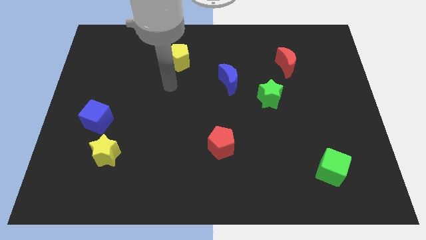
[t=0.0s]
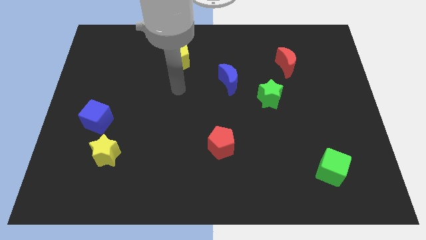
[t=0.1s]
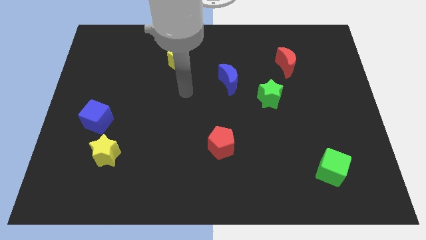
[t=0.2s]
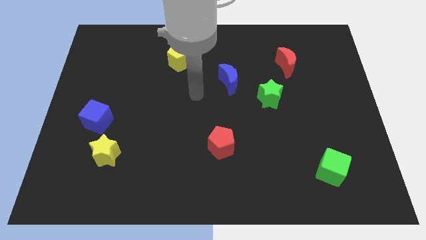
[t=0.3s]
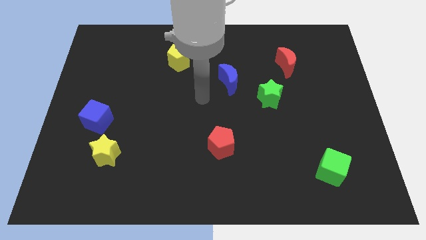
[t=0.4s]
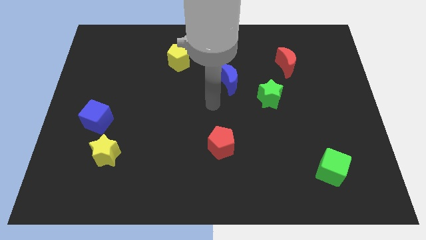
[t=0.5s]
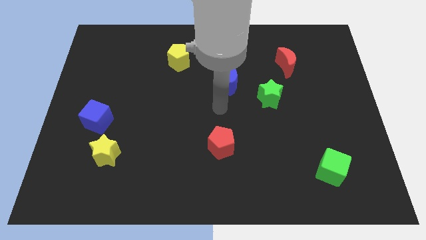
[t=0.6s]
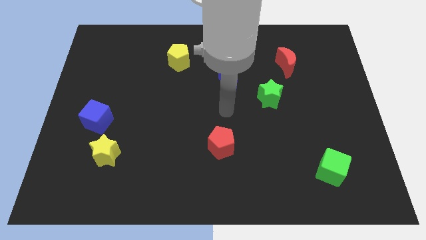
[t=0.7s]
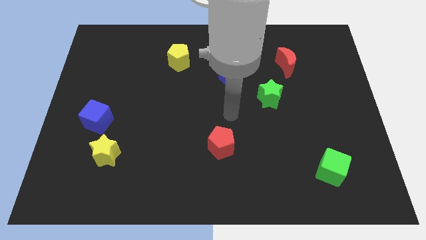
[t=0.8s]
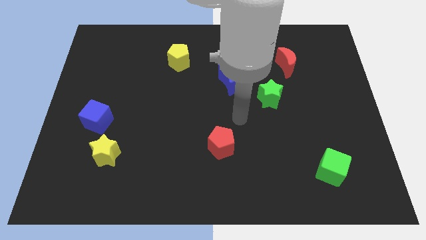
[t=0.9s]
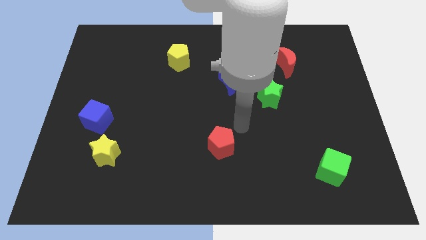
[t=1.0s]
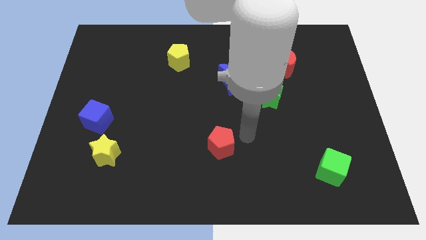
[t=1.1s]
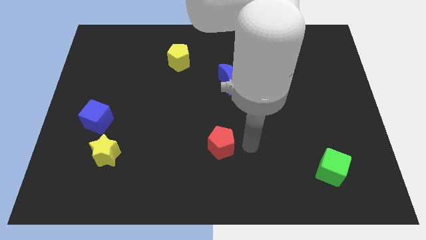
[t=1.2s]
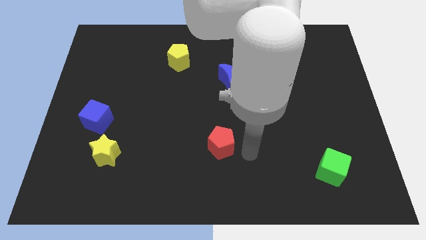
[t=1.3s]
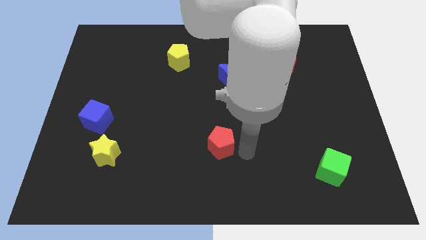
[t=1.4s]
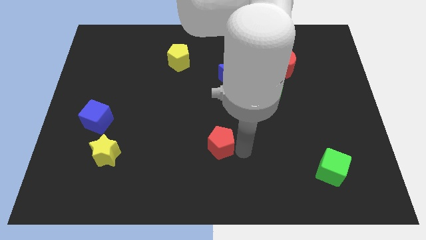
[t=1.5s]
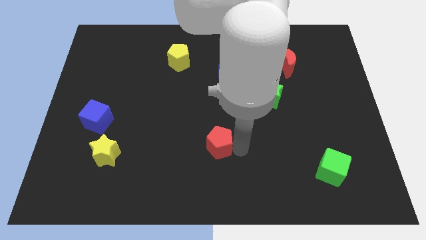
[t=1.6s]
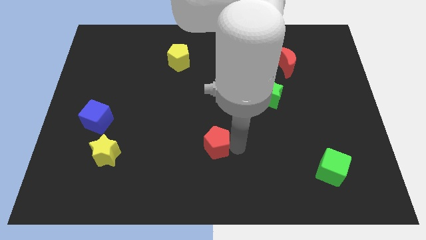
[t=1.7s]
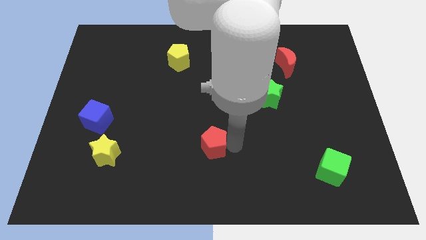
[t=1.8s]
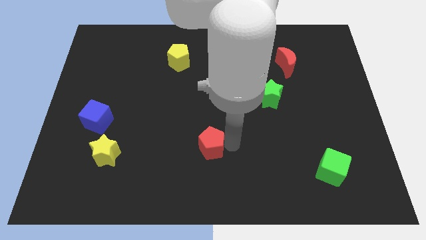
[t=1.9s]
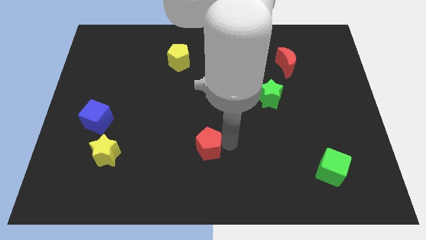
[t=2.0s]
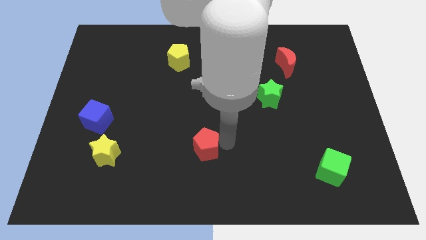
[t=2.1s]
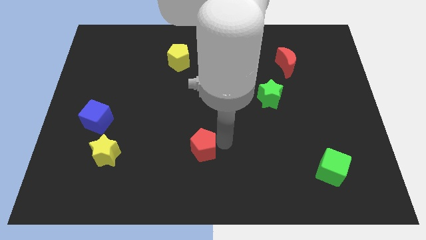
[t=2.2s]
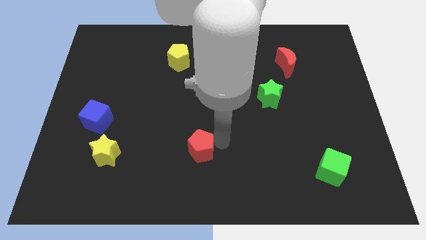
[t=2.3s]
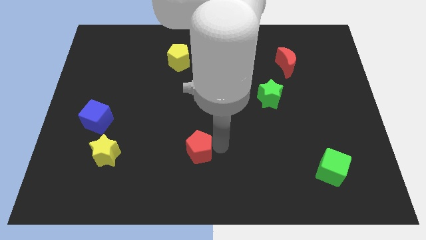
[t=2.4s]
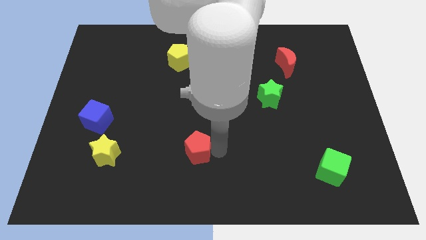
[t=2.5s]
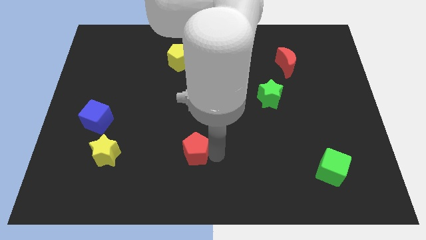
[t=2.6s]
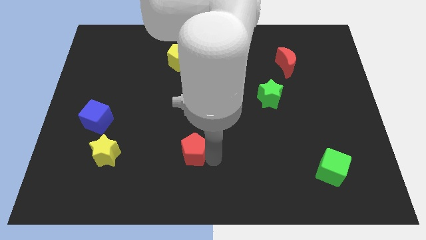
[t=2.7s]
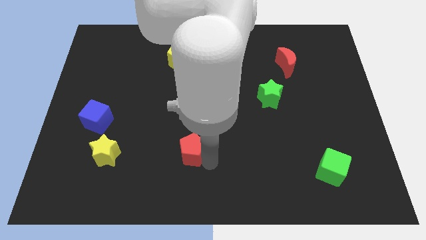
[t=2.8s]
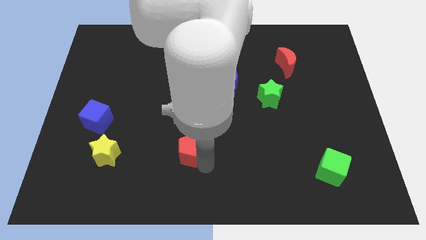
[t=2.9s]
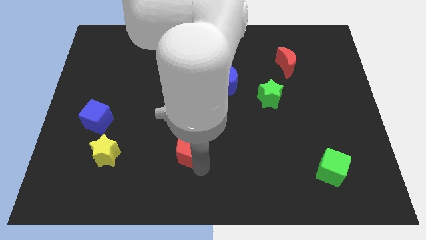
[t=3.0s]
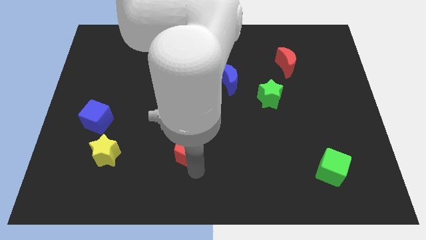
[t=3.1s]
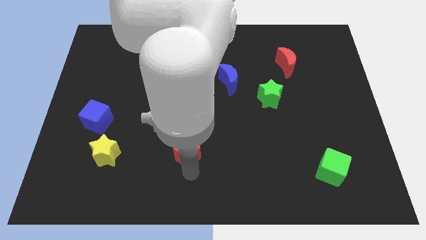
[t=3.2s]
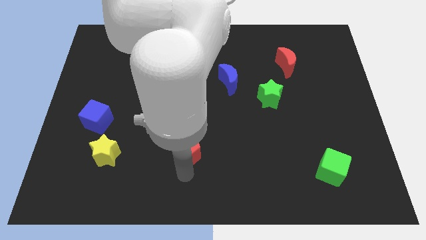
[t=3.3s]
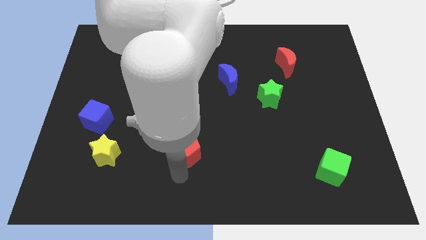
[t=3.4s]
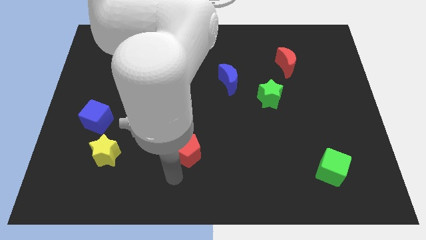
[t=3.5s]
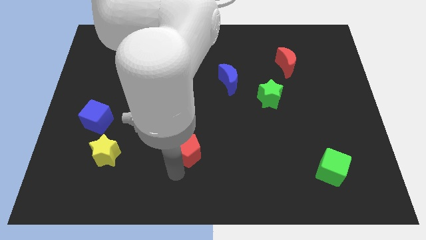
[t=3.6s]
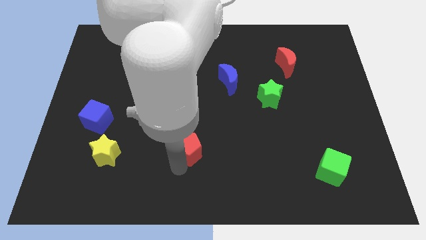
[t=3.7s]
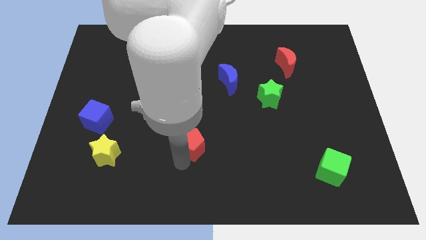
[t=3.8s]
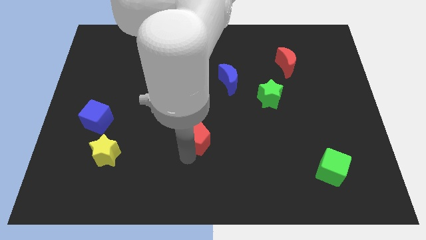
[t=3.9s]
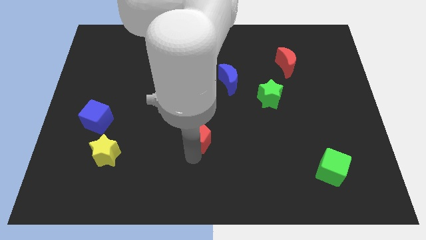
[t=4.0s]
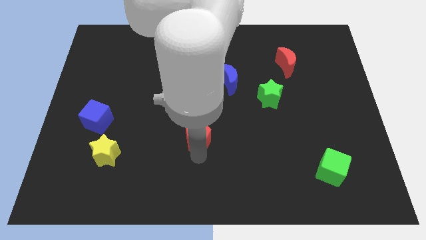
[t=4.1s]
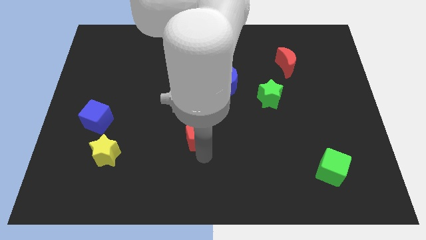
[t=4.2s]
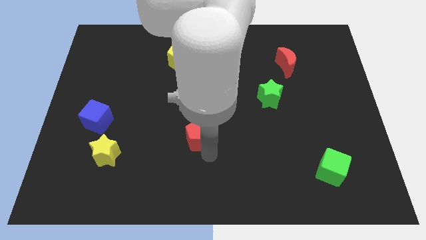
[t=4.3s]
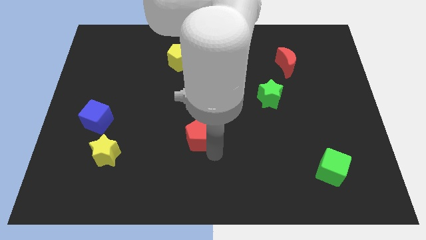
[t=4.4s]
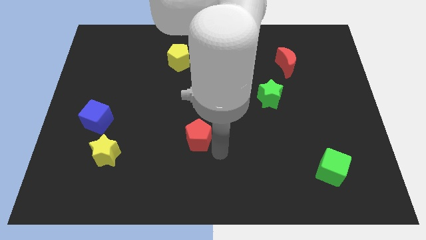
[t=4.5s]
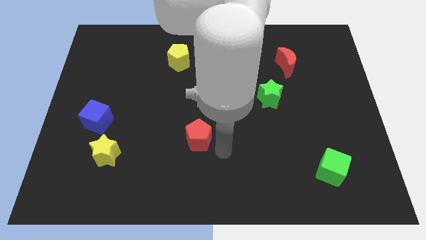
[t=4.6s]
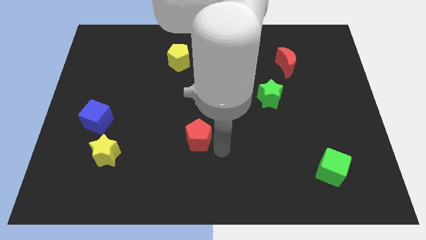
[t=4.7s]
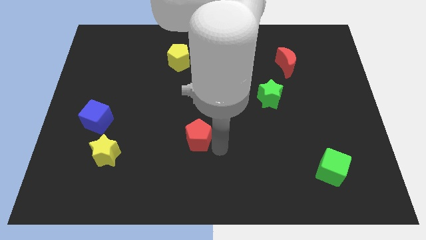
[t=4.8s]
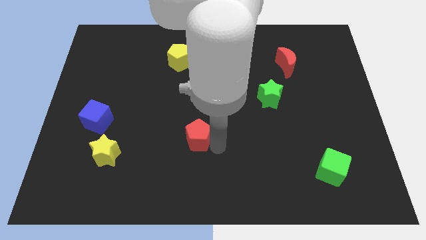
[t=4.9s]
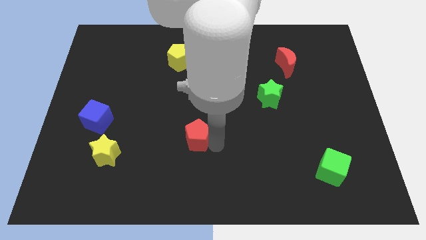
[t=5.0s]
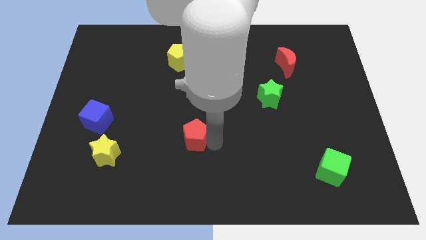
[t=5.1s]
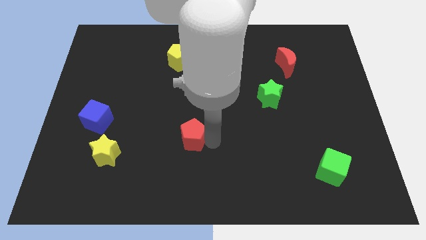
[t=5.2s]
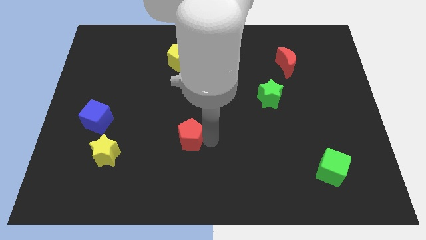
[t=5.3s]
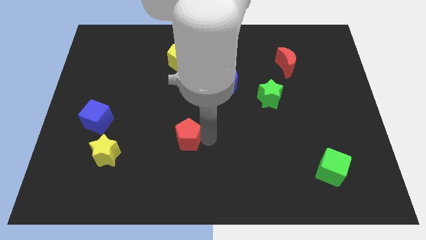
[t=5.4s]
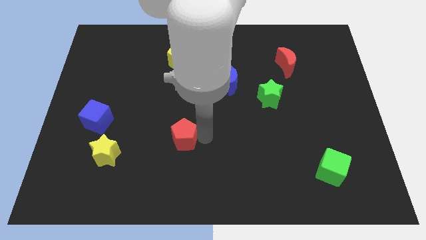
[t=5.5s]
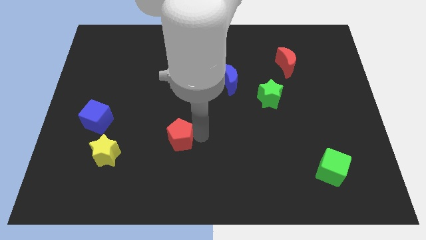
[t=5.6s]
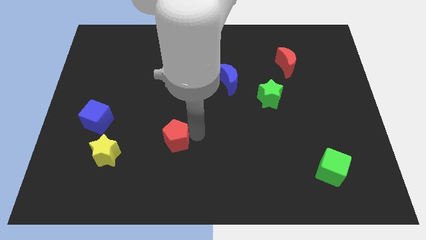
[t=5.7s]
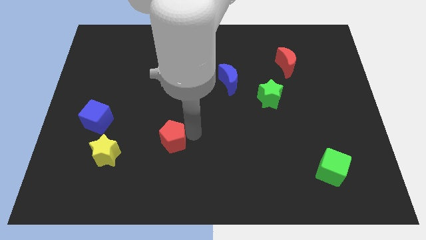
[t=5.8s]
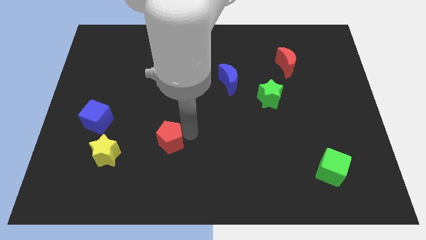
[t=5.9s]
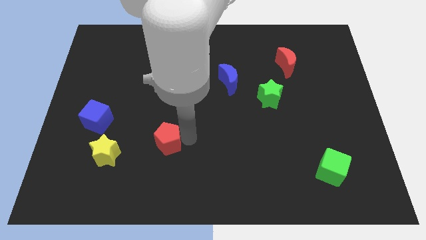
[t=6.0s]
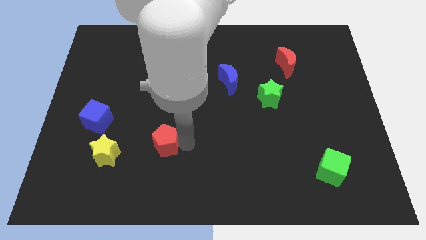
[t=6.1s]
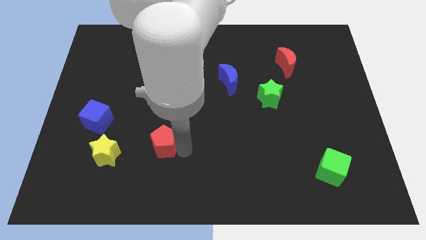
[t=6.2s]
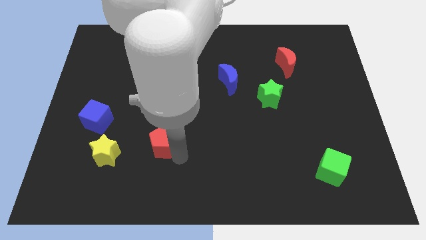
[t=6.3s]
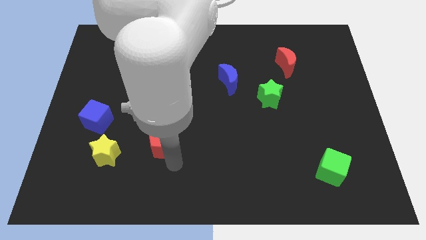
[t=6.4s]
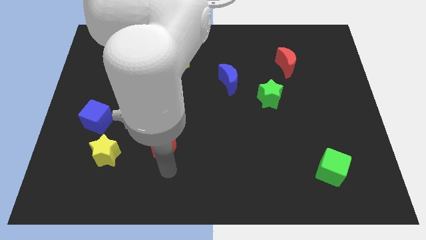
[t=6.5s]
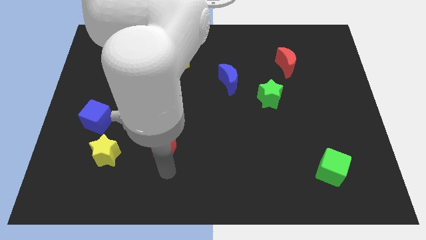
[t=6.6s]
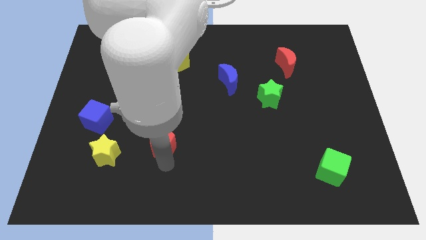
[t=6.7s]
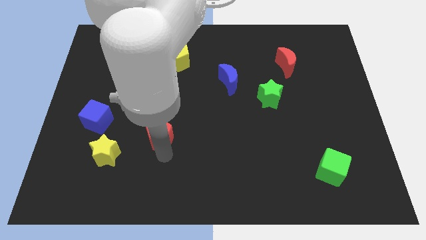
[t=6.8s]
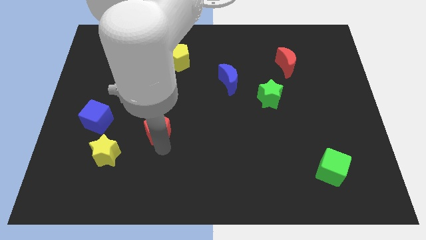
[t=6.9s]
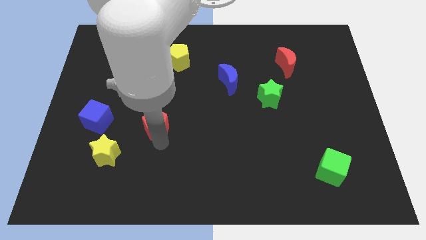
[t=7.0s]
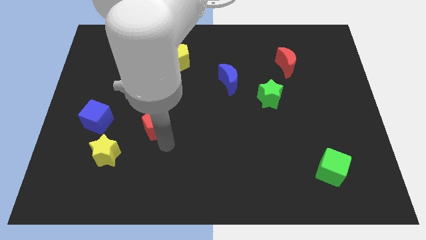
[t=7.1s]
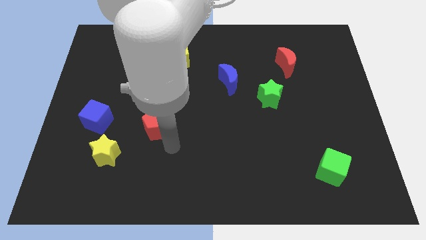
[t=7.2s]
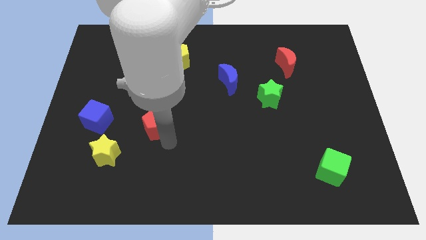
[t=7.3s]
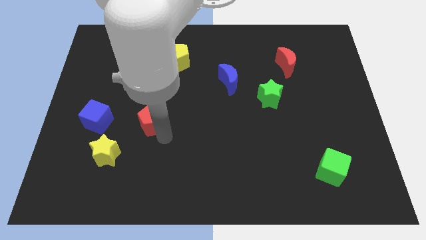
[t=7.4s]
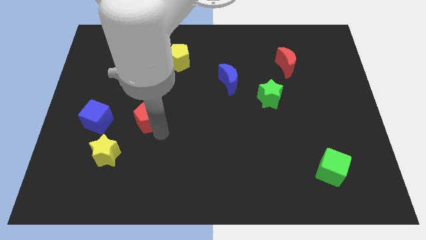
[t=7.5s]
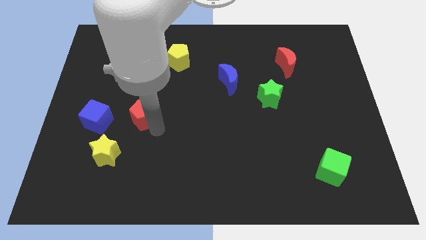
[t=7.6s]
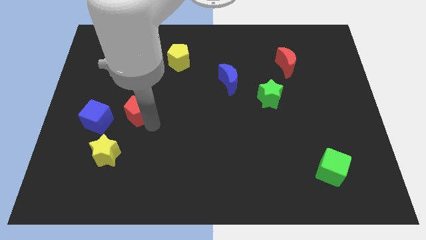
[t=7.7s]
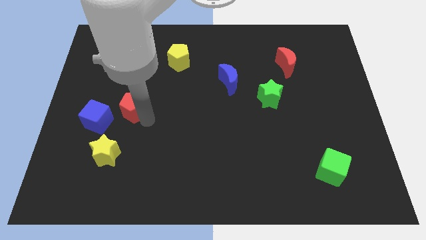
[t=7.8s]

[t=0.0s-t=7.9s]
move the red pentagon diagonally up and to the right of the blue cube

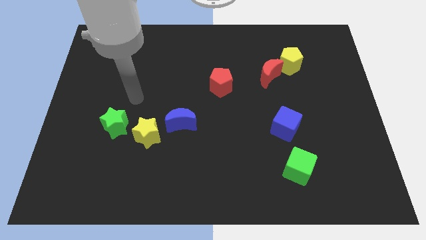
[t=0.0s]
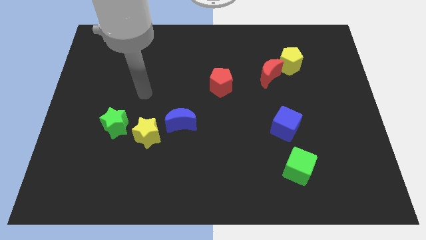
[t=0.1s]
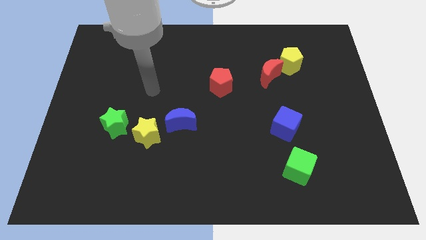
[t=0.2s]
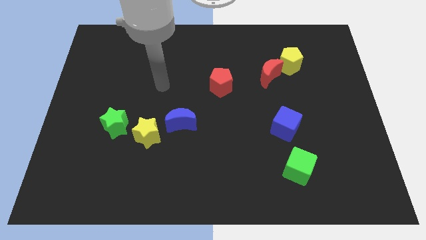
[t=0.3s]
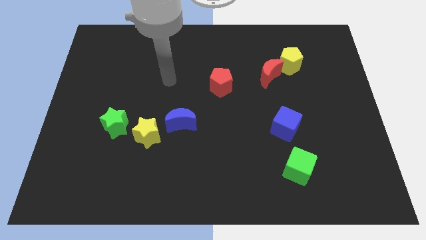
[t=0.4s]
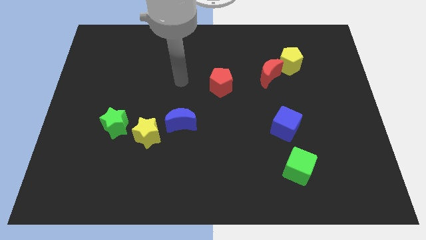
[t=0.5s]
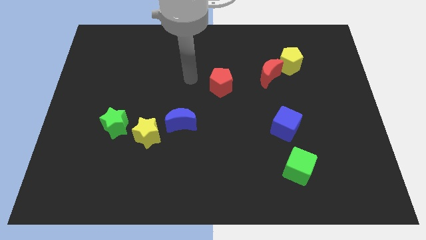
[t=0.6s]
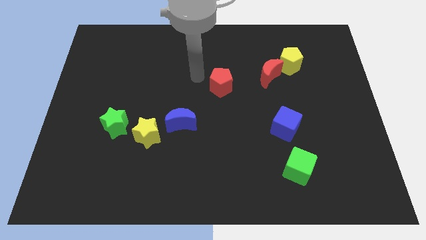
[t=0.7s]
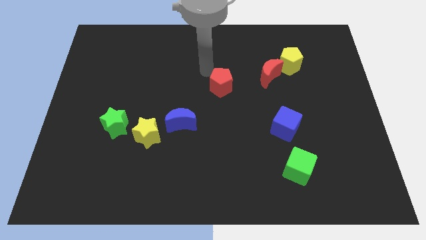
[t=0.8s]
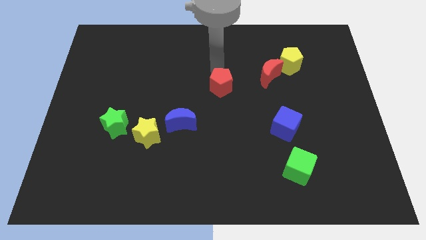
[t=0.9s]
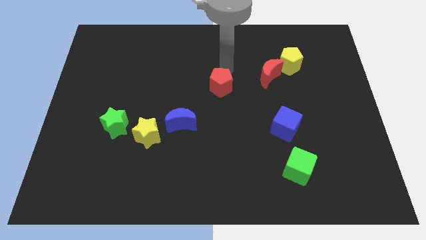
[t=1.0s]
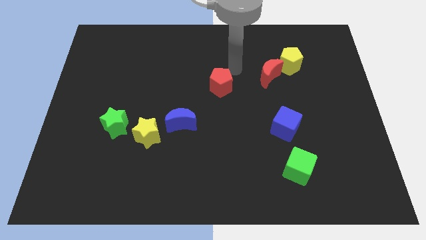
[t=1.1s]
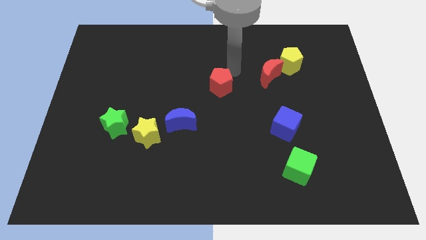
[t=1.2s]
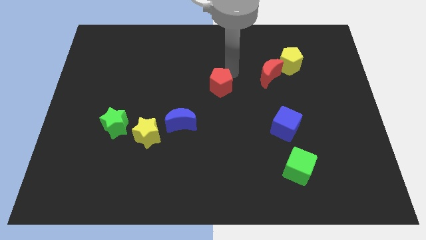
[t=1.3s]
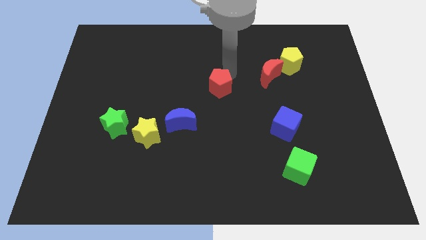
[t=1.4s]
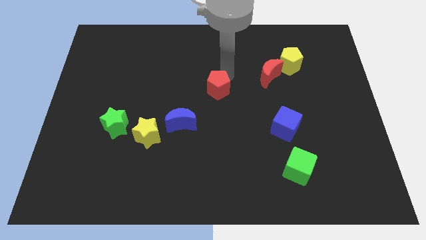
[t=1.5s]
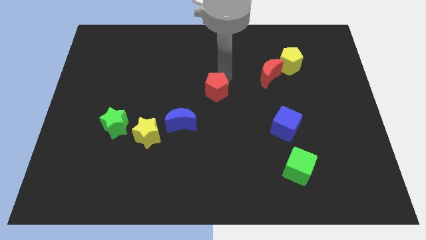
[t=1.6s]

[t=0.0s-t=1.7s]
push the red pentagon to the top right side of the blue moon
